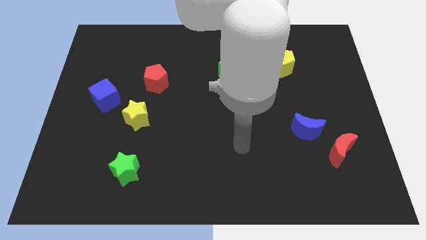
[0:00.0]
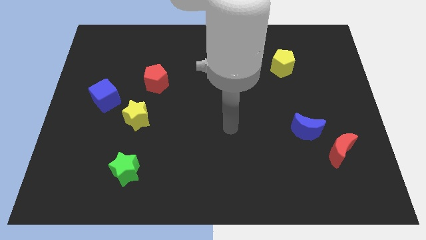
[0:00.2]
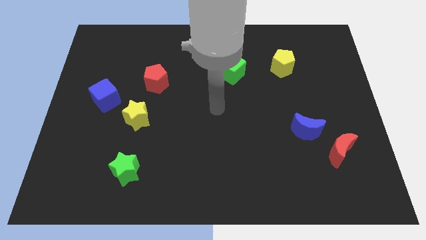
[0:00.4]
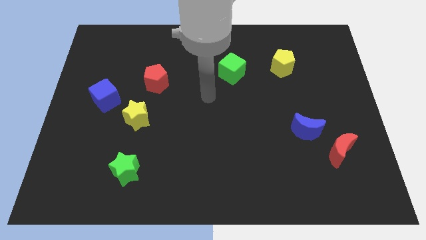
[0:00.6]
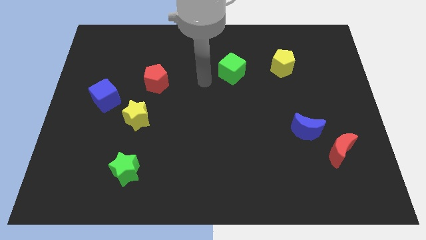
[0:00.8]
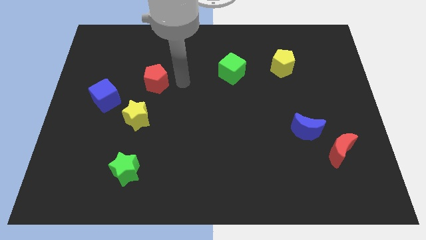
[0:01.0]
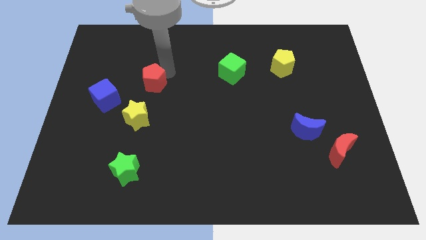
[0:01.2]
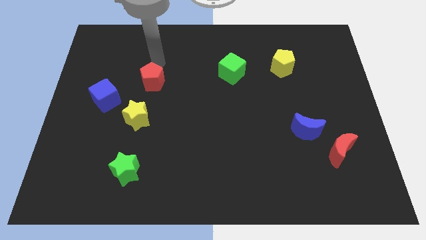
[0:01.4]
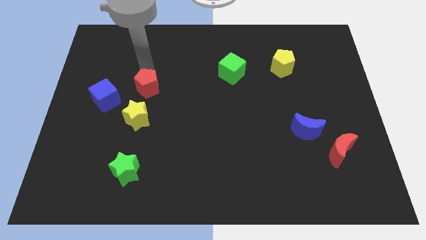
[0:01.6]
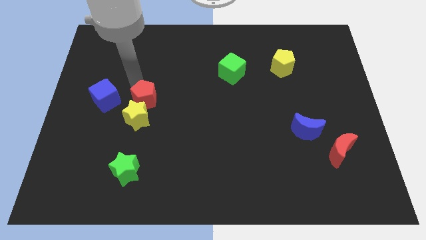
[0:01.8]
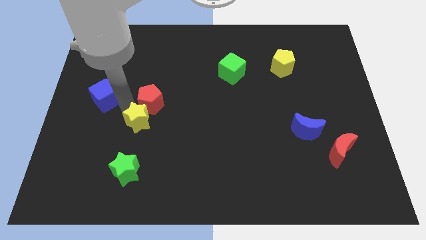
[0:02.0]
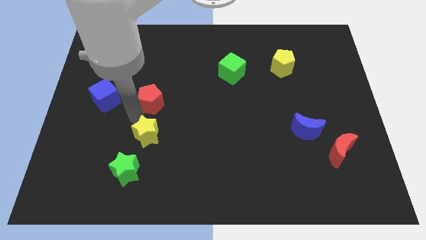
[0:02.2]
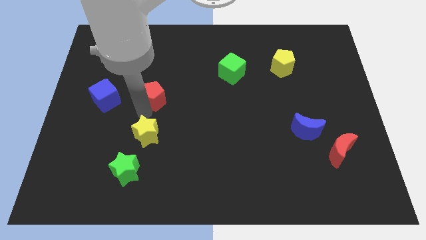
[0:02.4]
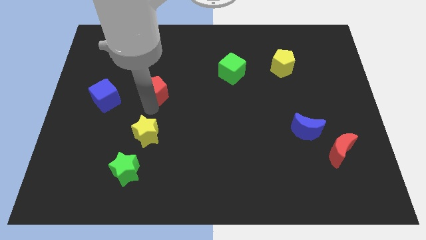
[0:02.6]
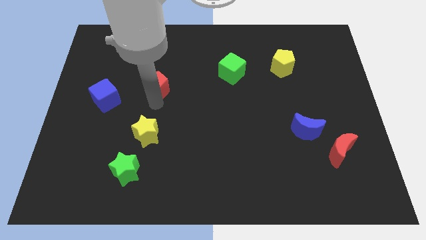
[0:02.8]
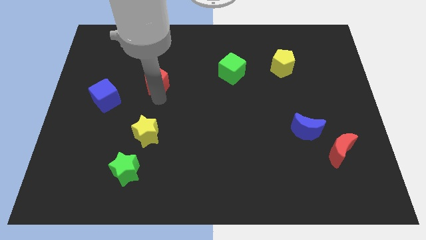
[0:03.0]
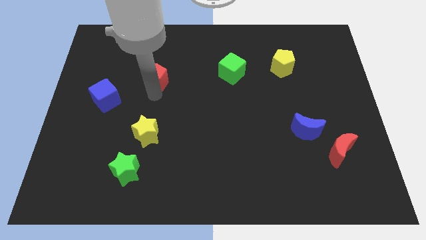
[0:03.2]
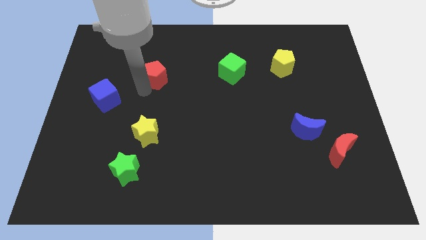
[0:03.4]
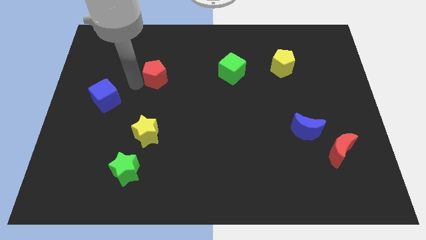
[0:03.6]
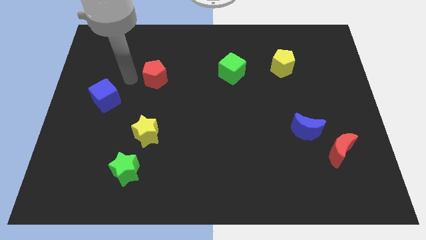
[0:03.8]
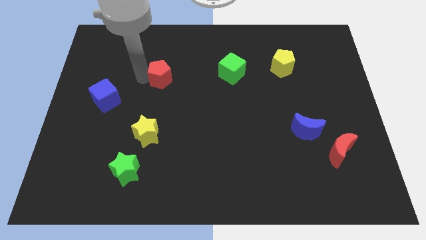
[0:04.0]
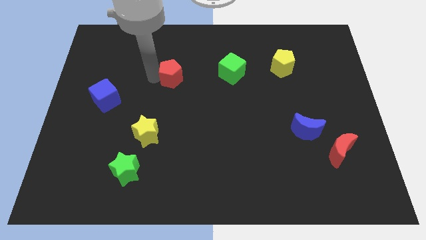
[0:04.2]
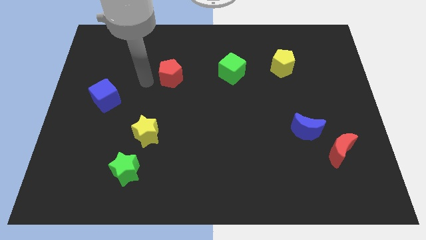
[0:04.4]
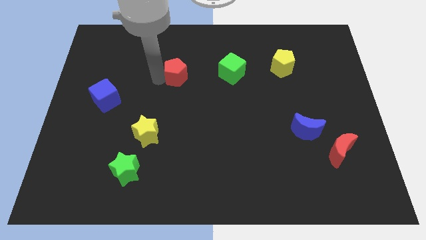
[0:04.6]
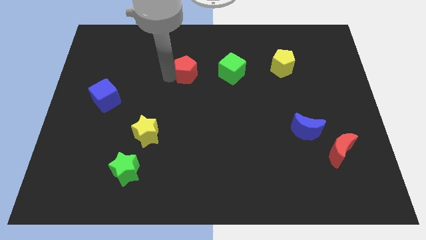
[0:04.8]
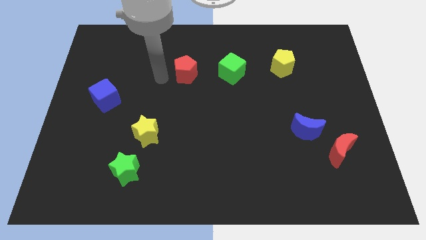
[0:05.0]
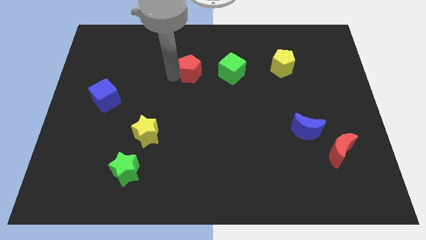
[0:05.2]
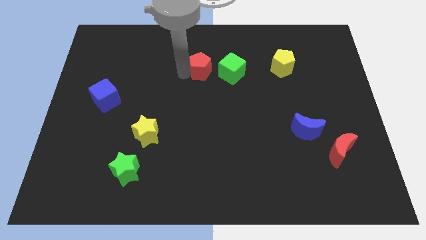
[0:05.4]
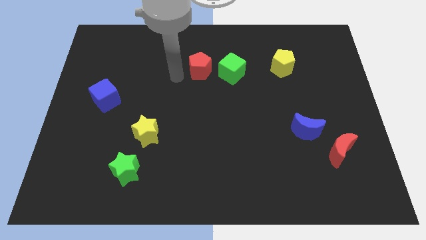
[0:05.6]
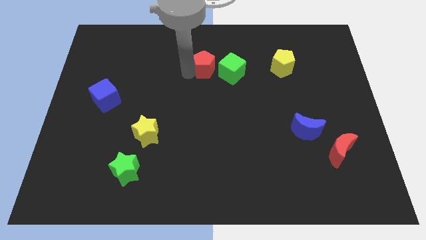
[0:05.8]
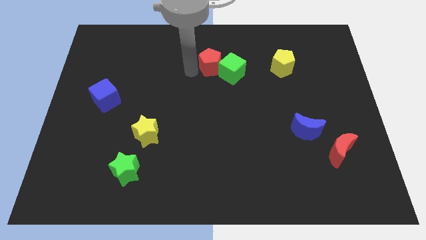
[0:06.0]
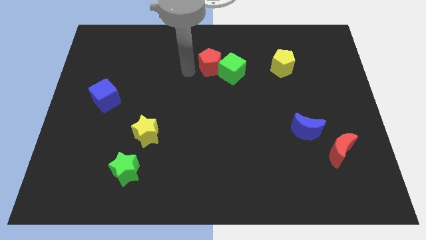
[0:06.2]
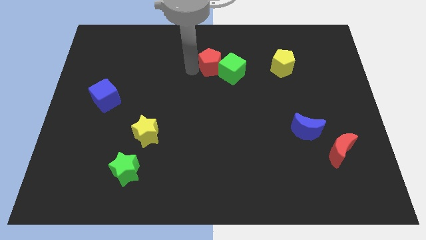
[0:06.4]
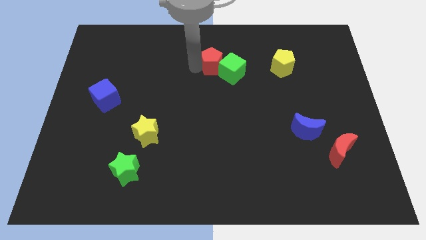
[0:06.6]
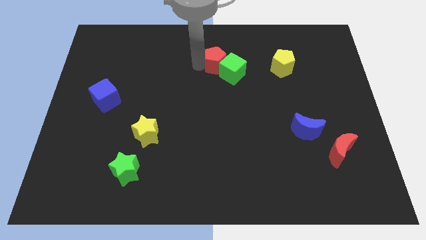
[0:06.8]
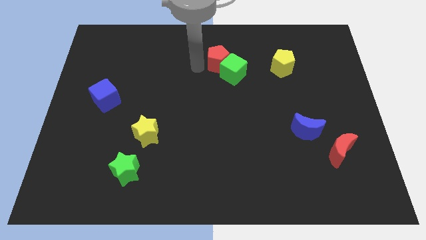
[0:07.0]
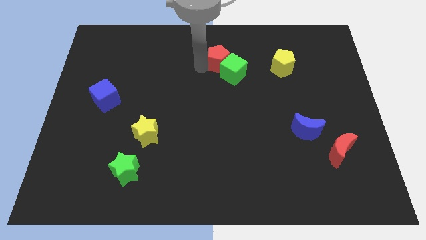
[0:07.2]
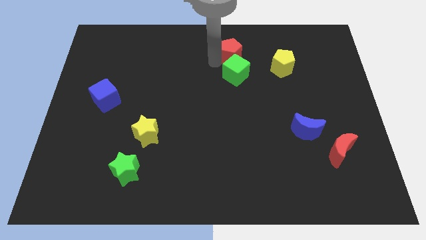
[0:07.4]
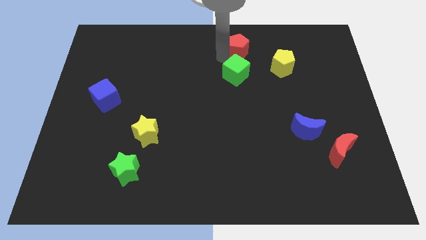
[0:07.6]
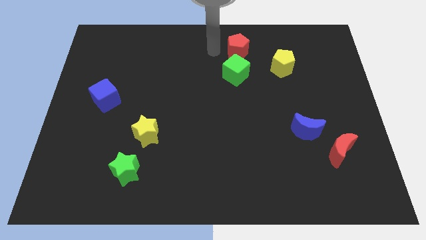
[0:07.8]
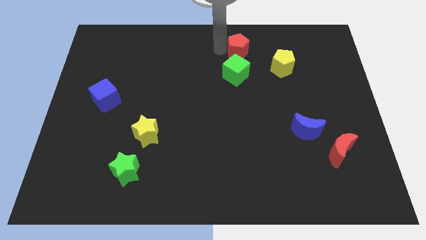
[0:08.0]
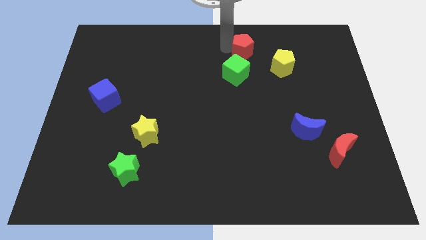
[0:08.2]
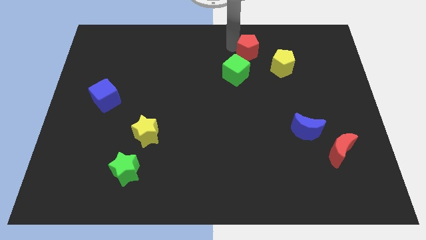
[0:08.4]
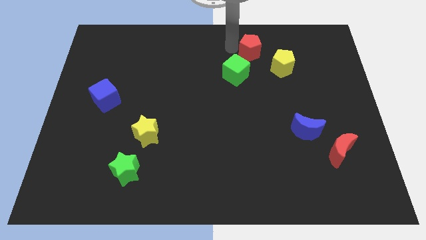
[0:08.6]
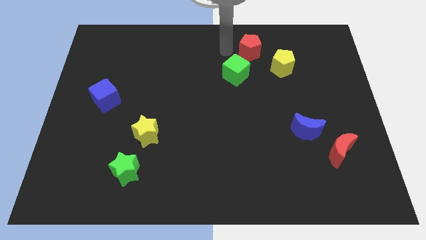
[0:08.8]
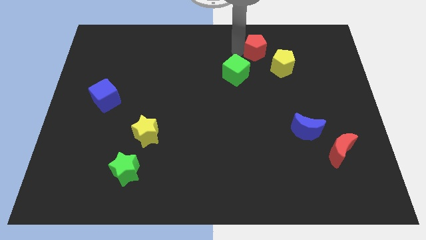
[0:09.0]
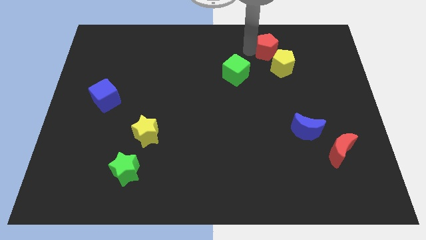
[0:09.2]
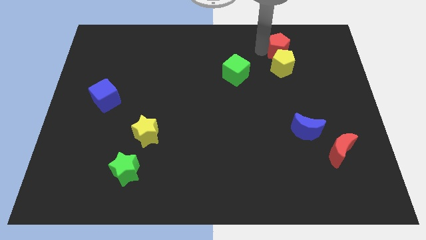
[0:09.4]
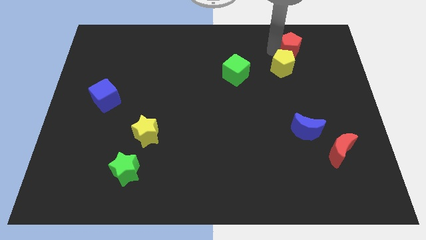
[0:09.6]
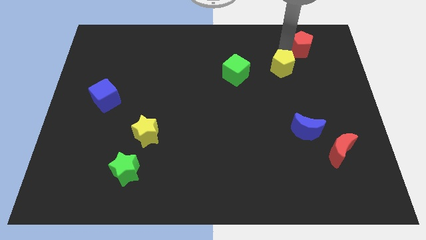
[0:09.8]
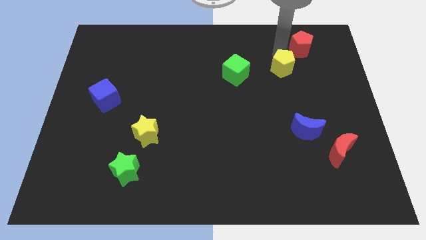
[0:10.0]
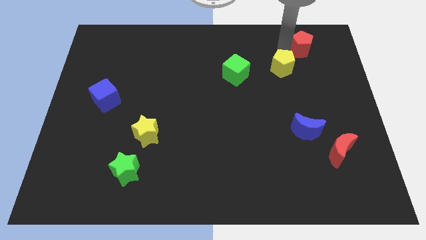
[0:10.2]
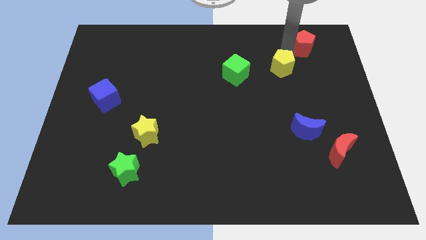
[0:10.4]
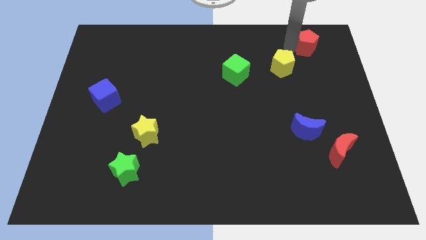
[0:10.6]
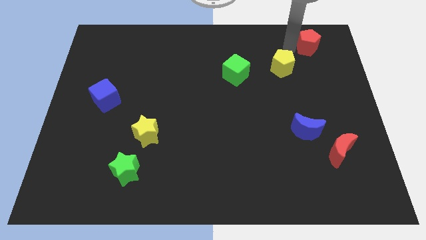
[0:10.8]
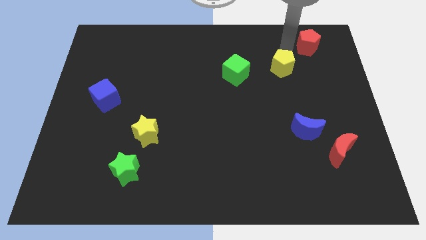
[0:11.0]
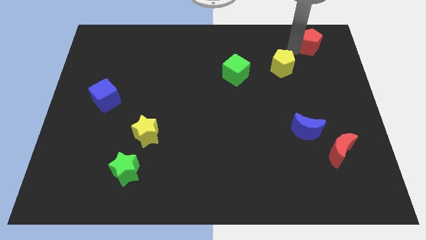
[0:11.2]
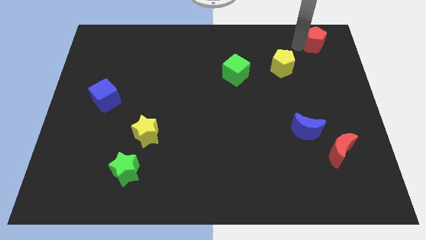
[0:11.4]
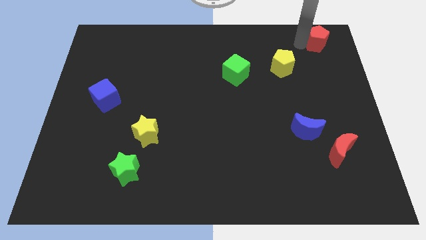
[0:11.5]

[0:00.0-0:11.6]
push the red pentagon to the top right of the board
